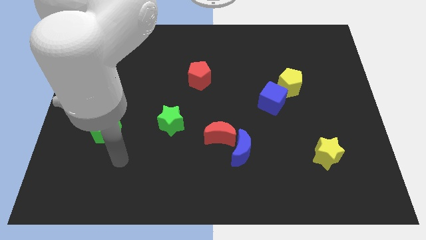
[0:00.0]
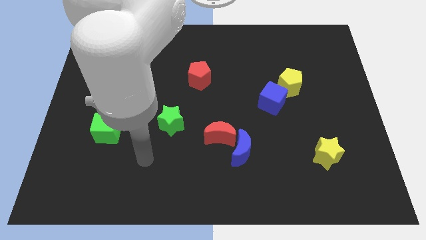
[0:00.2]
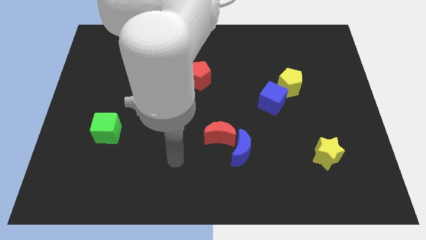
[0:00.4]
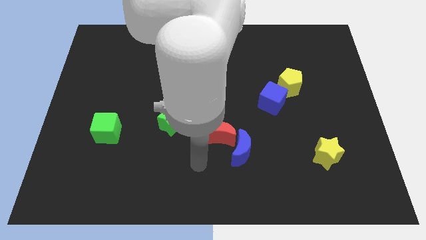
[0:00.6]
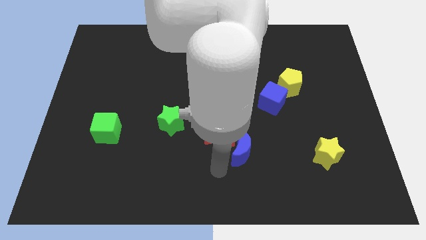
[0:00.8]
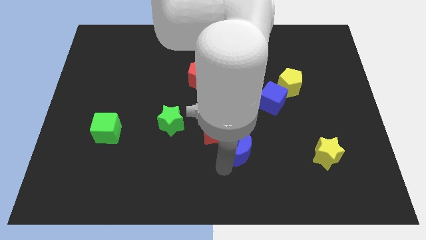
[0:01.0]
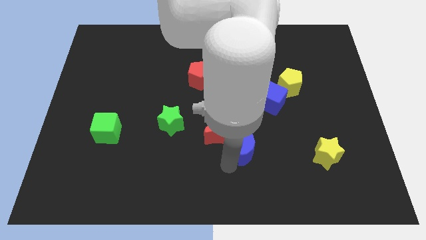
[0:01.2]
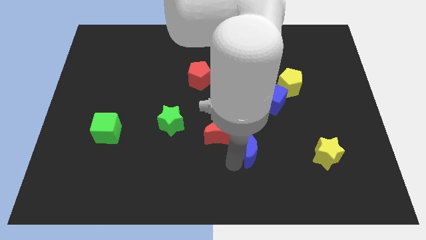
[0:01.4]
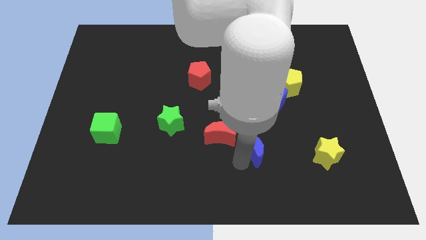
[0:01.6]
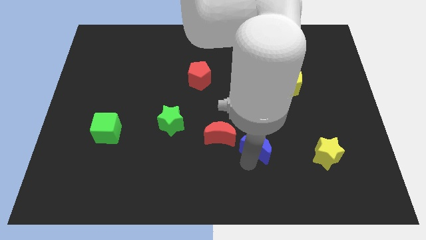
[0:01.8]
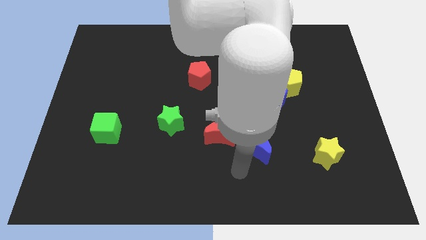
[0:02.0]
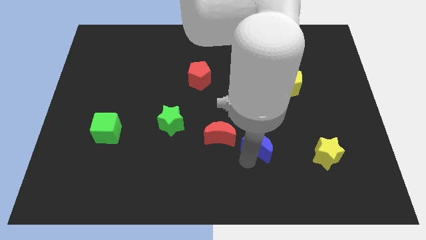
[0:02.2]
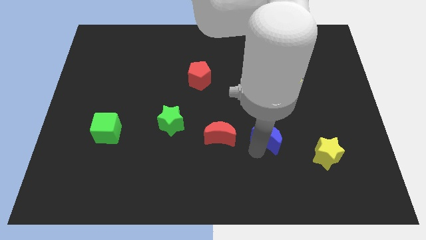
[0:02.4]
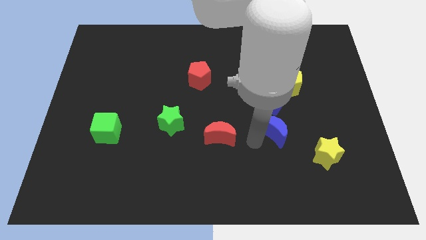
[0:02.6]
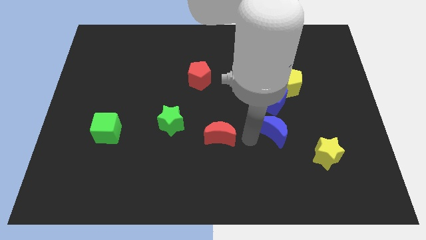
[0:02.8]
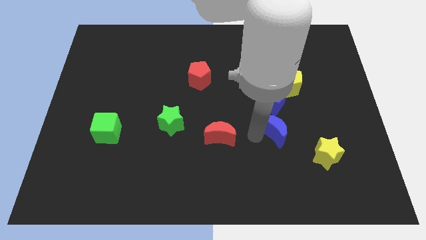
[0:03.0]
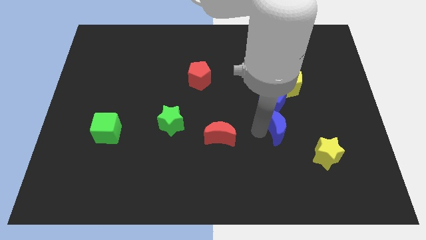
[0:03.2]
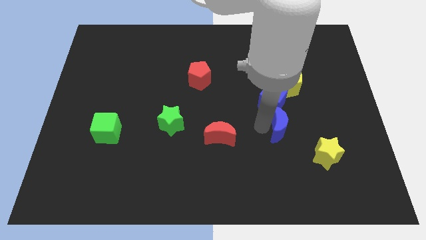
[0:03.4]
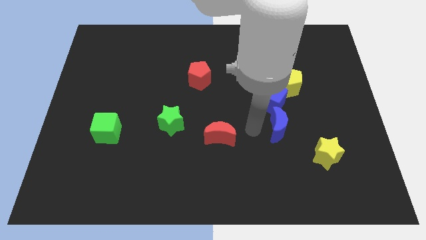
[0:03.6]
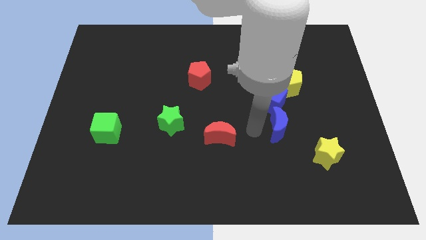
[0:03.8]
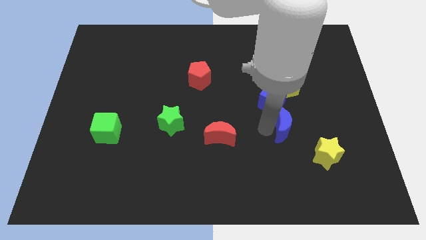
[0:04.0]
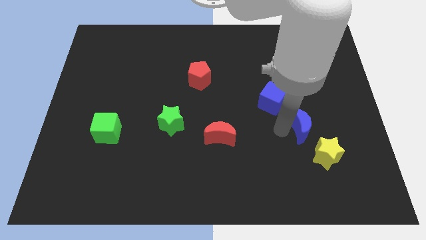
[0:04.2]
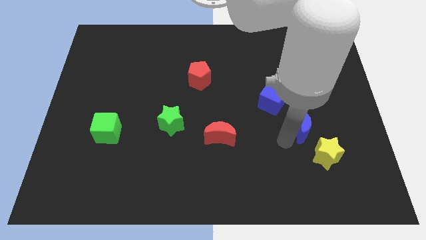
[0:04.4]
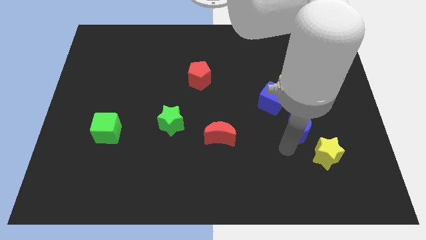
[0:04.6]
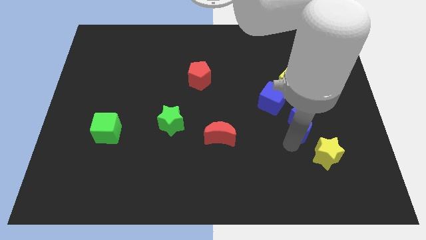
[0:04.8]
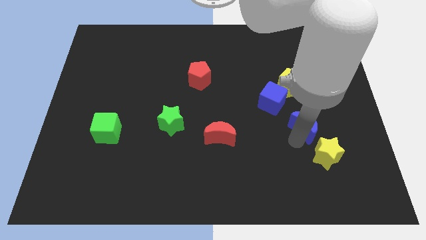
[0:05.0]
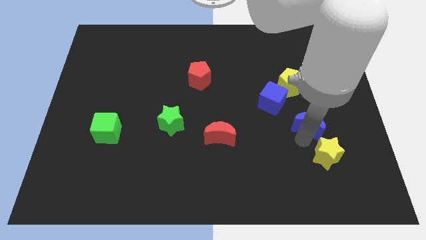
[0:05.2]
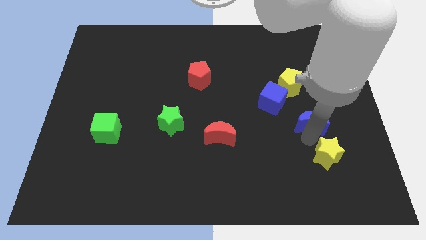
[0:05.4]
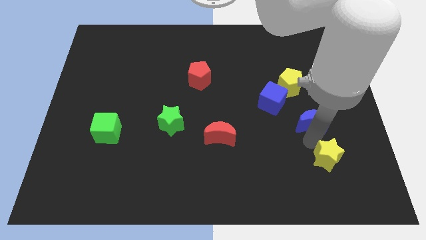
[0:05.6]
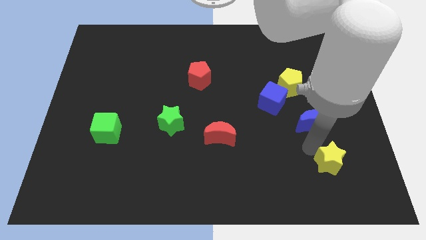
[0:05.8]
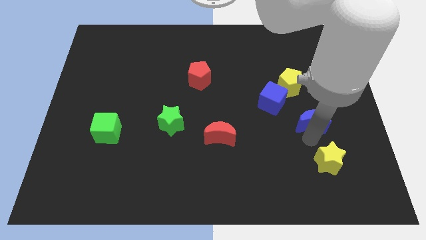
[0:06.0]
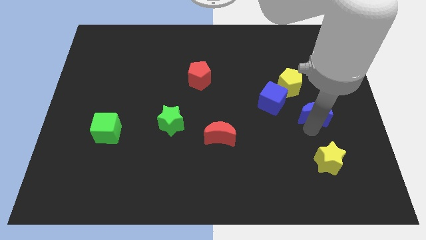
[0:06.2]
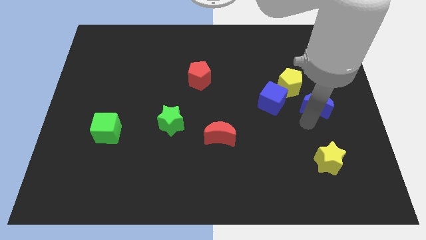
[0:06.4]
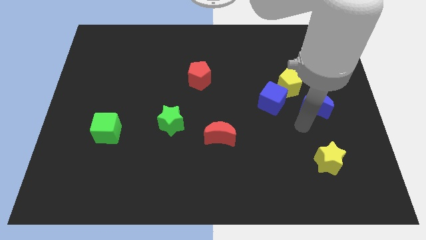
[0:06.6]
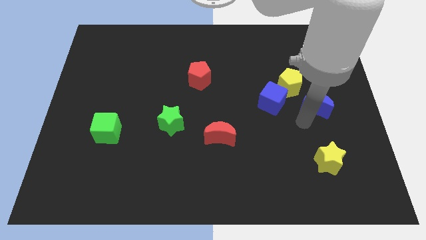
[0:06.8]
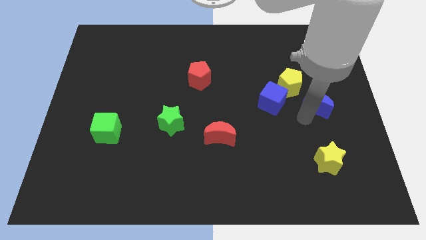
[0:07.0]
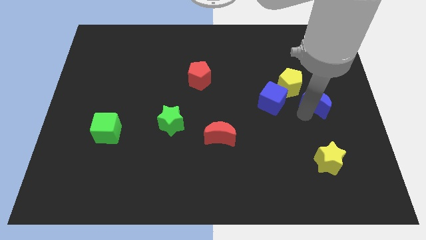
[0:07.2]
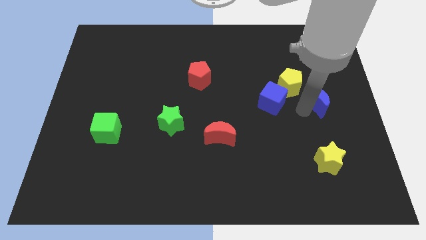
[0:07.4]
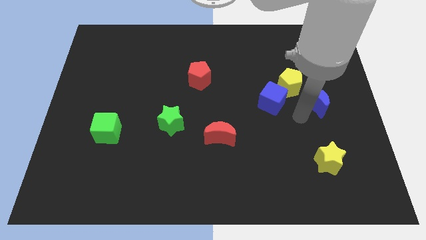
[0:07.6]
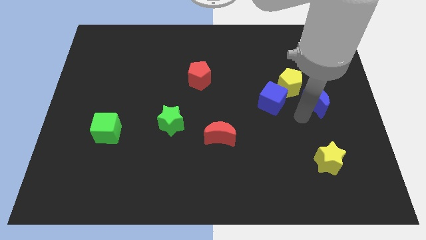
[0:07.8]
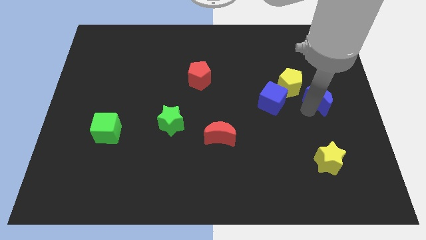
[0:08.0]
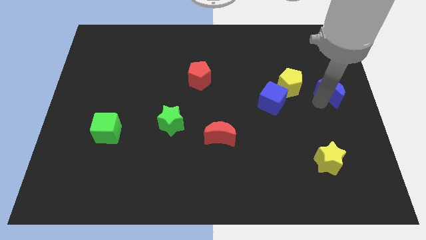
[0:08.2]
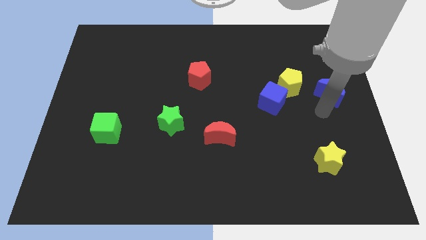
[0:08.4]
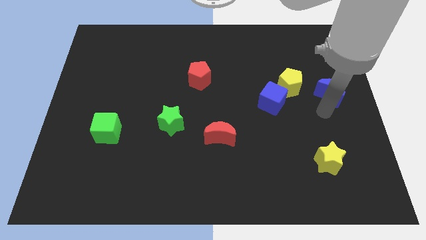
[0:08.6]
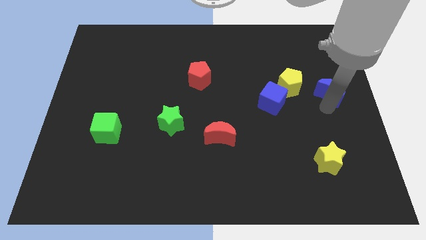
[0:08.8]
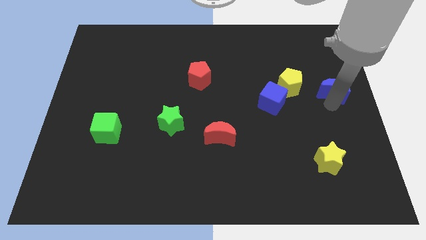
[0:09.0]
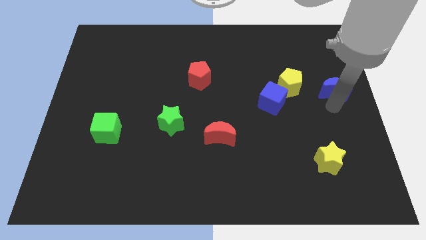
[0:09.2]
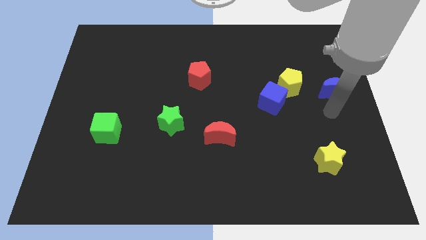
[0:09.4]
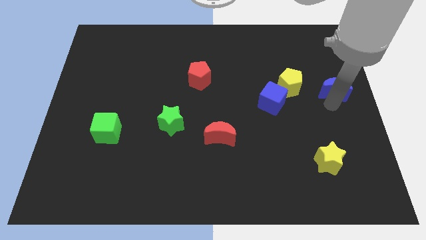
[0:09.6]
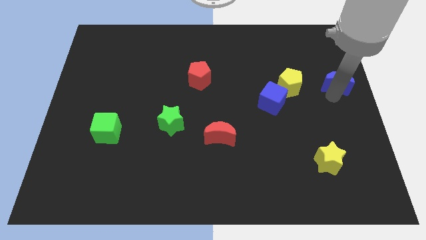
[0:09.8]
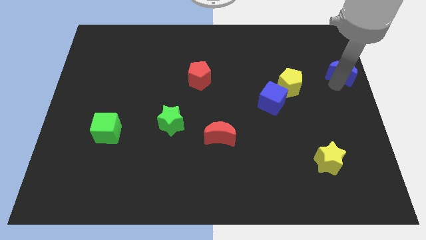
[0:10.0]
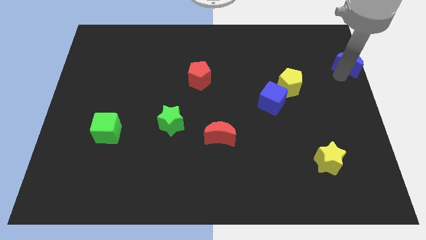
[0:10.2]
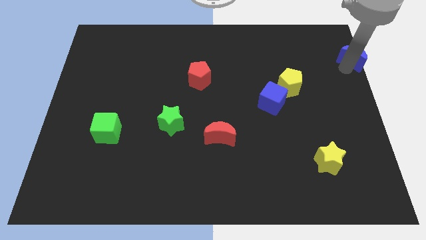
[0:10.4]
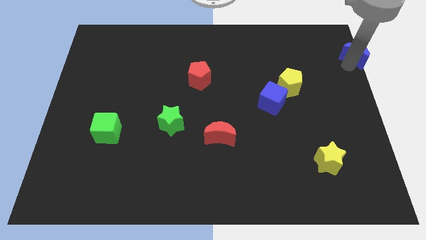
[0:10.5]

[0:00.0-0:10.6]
move the blue moon to the upper right corner

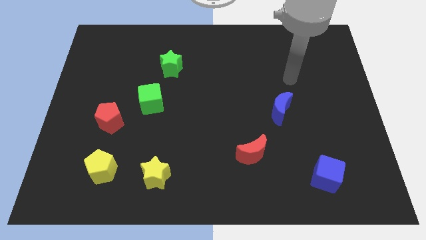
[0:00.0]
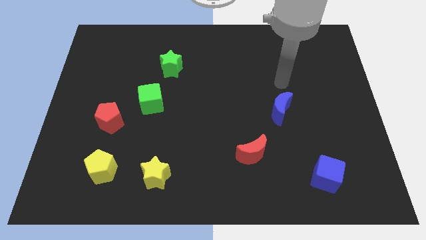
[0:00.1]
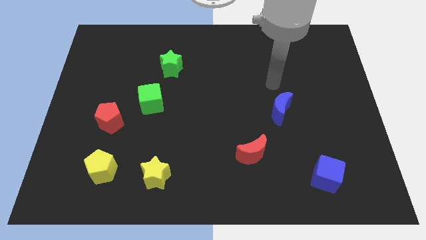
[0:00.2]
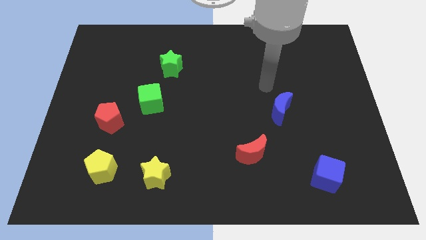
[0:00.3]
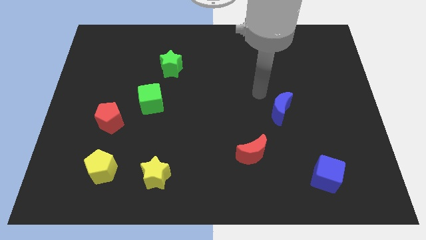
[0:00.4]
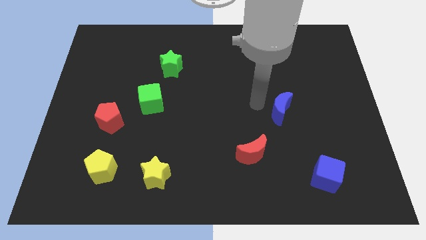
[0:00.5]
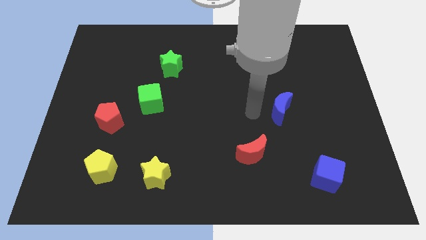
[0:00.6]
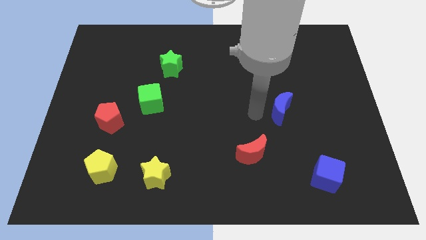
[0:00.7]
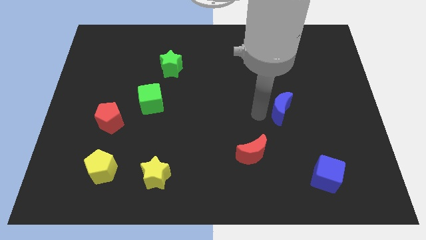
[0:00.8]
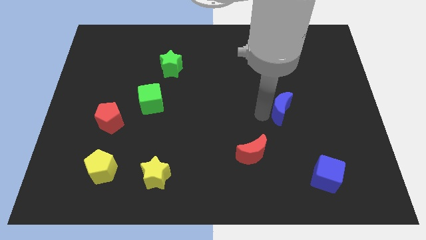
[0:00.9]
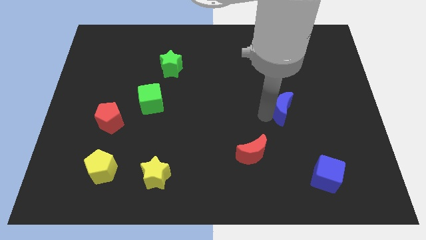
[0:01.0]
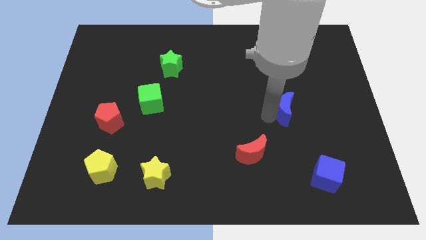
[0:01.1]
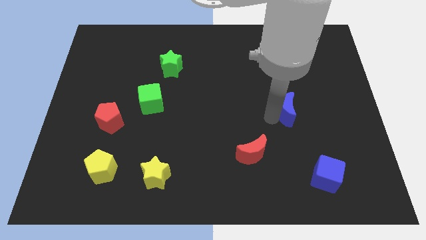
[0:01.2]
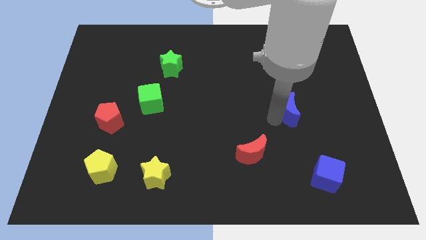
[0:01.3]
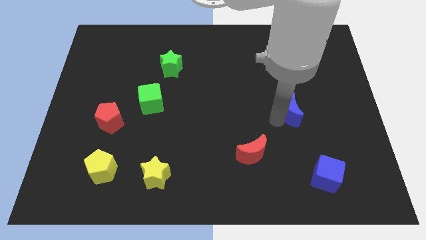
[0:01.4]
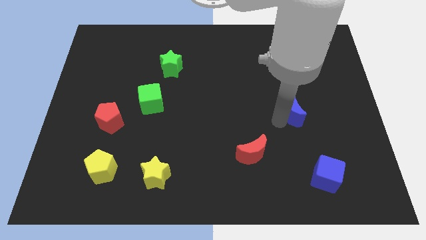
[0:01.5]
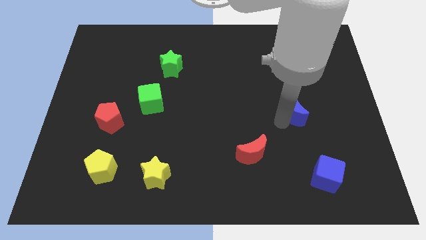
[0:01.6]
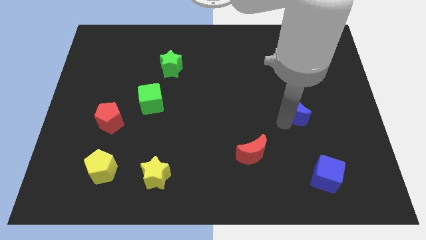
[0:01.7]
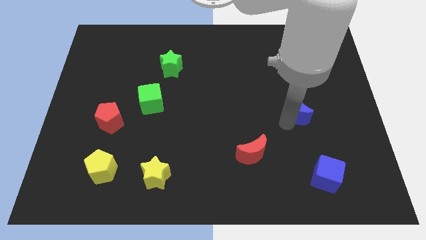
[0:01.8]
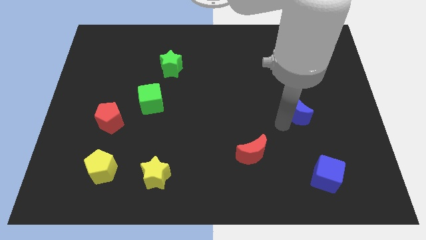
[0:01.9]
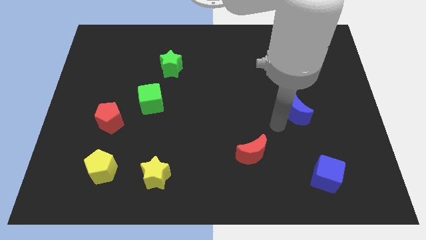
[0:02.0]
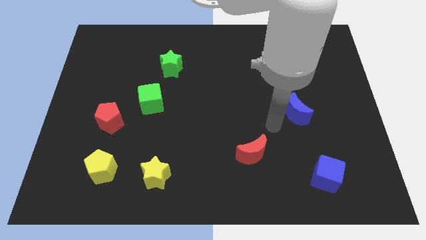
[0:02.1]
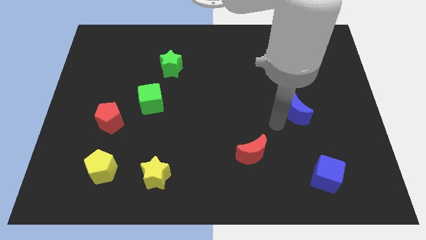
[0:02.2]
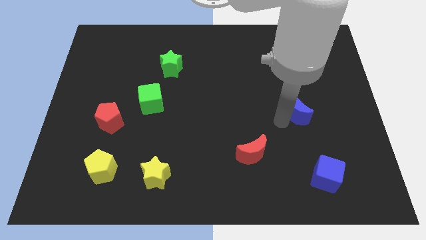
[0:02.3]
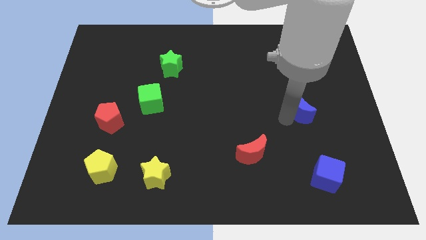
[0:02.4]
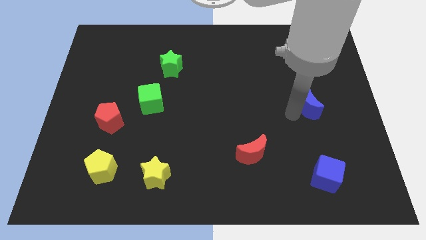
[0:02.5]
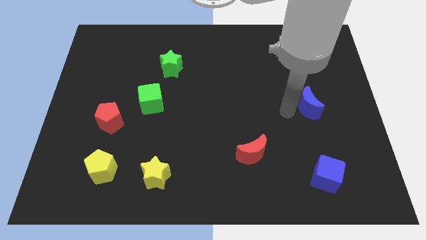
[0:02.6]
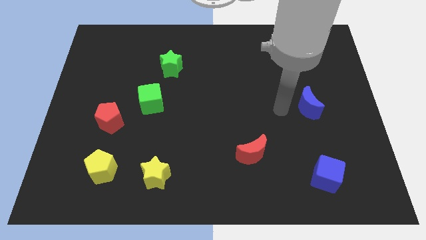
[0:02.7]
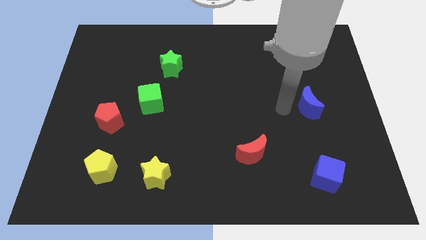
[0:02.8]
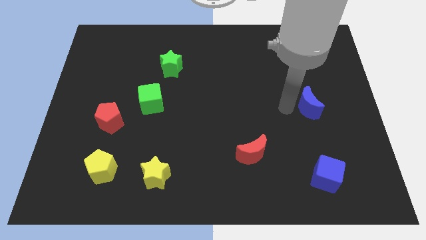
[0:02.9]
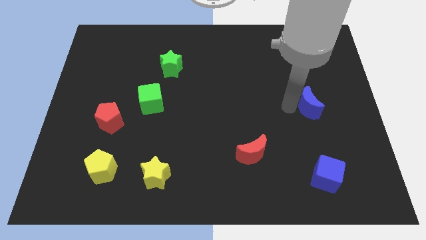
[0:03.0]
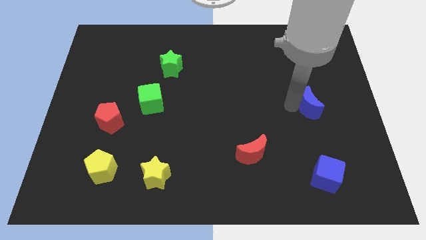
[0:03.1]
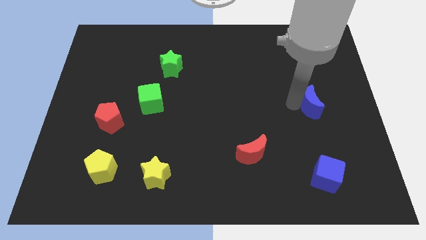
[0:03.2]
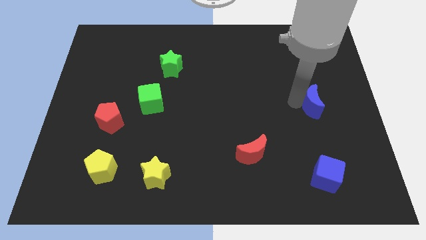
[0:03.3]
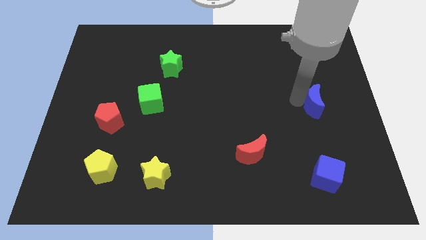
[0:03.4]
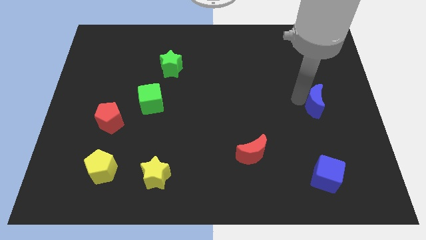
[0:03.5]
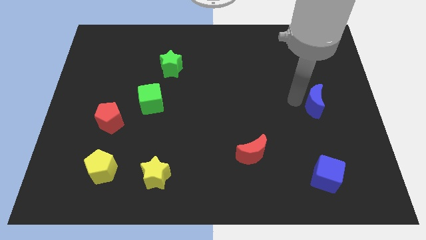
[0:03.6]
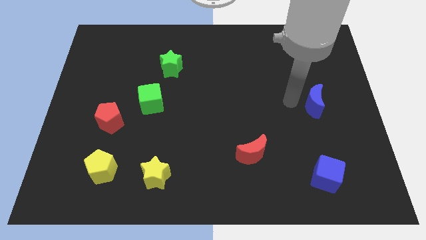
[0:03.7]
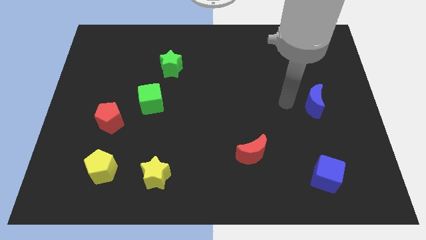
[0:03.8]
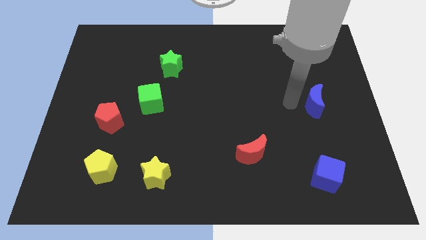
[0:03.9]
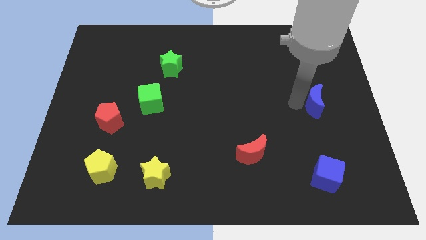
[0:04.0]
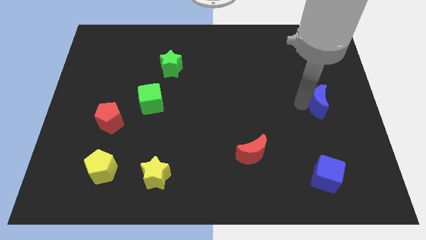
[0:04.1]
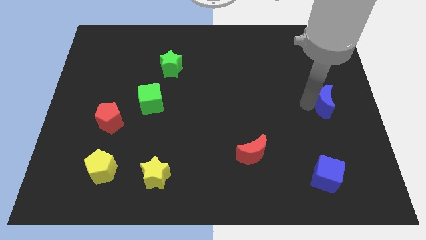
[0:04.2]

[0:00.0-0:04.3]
push the blue moon to the center right
